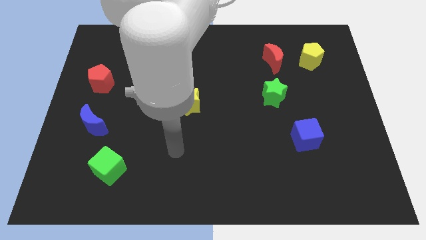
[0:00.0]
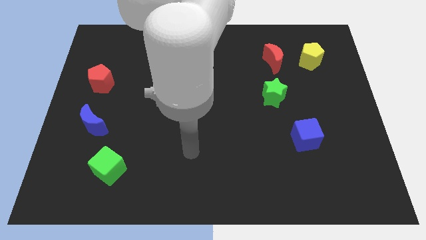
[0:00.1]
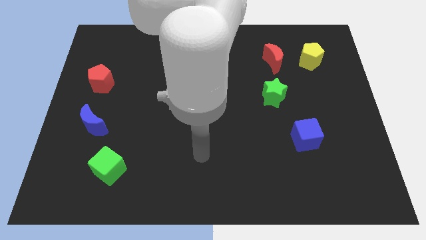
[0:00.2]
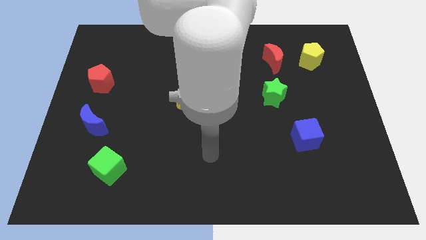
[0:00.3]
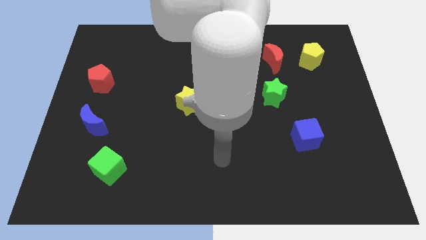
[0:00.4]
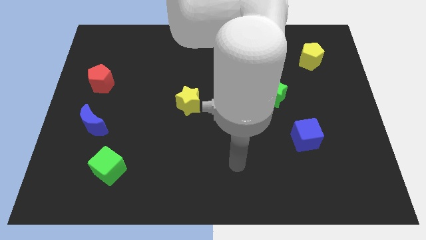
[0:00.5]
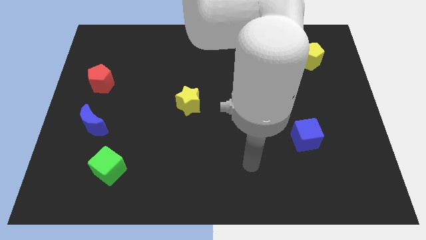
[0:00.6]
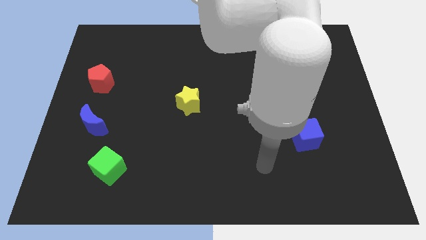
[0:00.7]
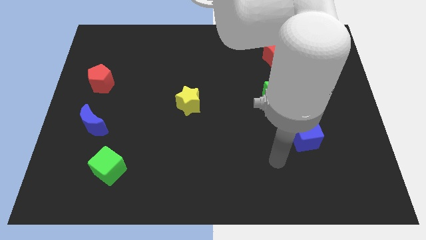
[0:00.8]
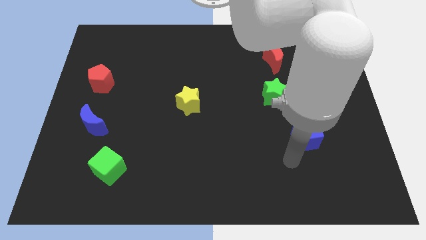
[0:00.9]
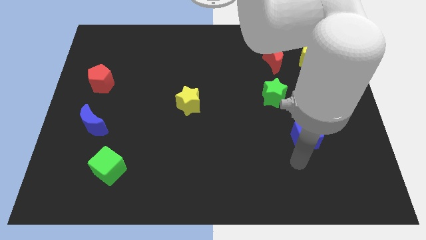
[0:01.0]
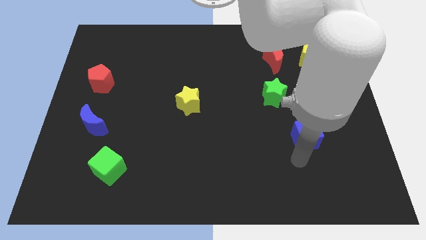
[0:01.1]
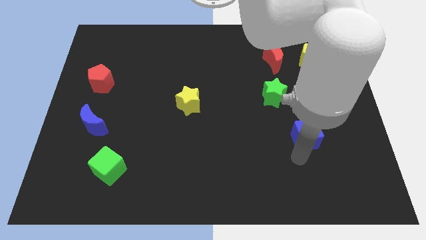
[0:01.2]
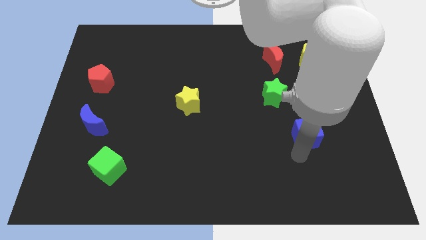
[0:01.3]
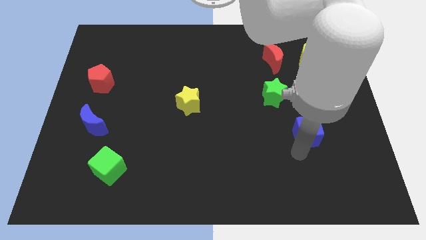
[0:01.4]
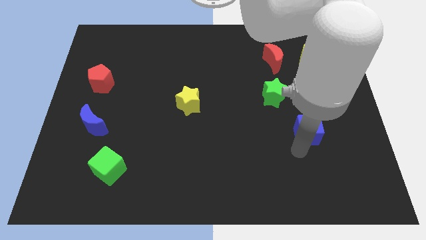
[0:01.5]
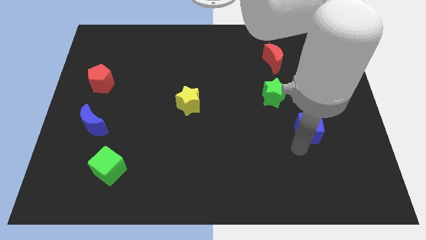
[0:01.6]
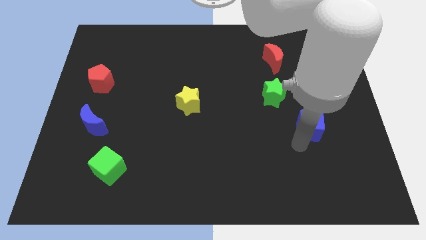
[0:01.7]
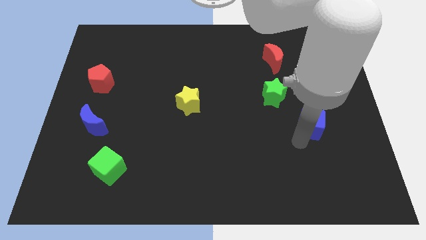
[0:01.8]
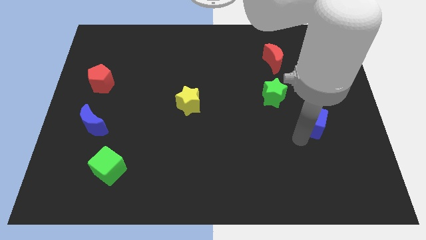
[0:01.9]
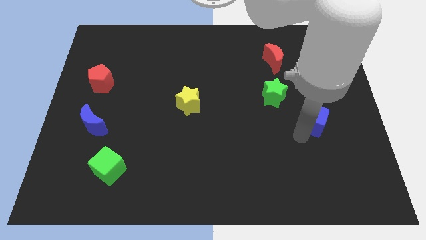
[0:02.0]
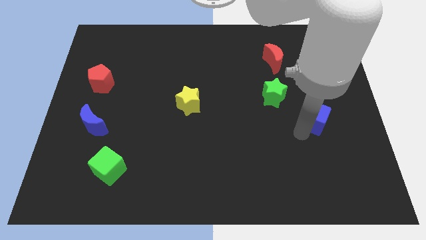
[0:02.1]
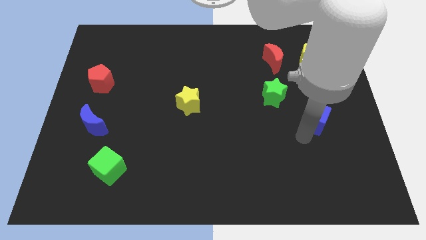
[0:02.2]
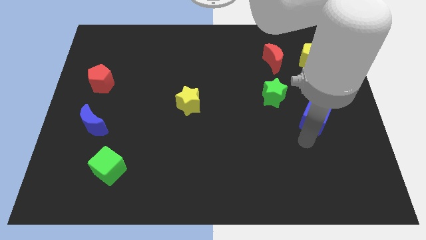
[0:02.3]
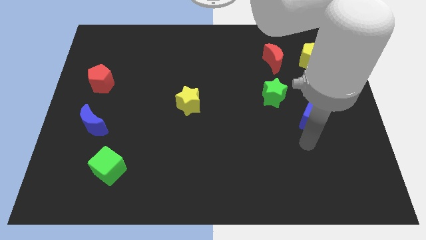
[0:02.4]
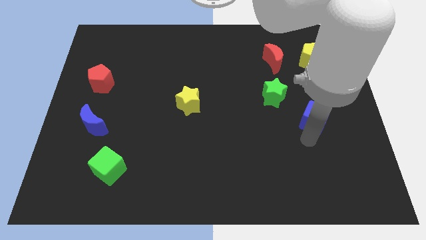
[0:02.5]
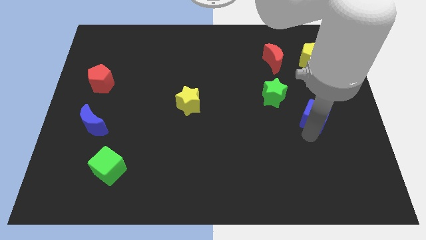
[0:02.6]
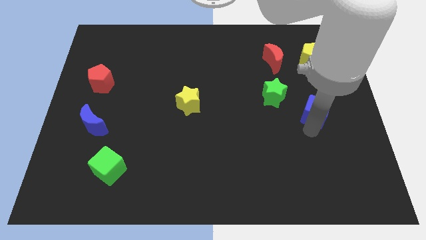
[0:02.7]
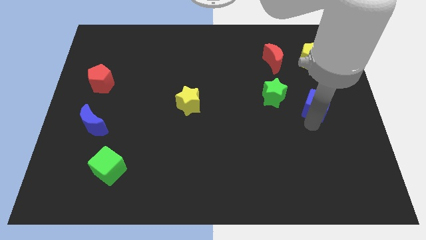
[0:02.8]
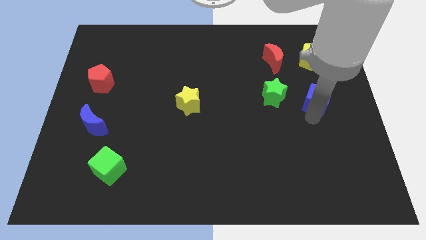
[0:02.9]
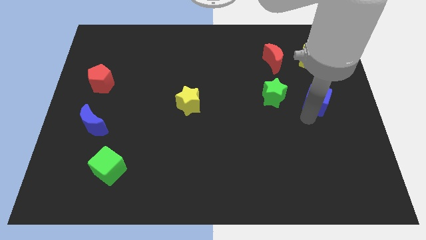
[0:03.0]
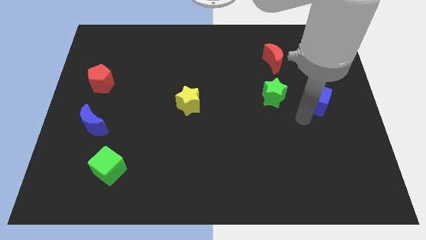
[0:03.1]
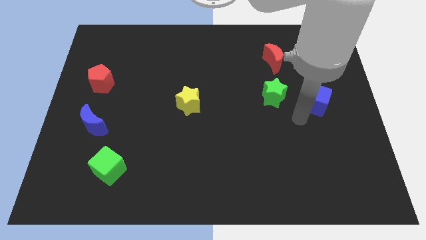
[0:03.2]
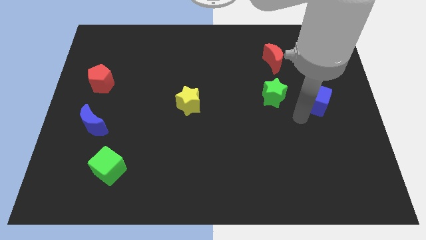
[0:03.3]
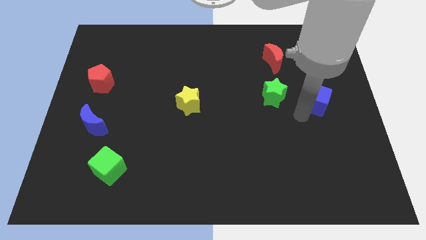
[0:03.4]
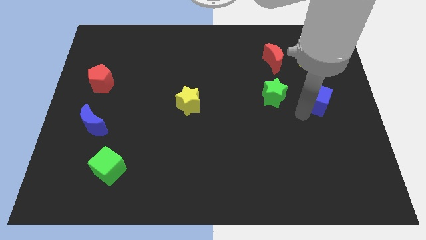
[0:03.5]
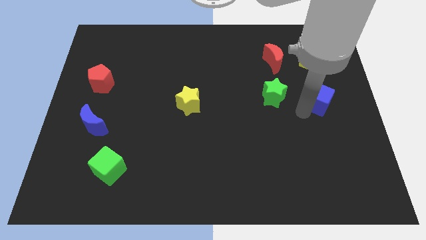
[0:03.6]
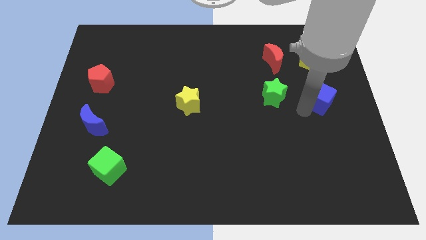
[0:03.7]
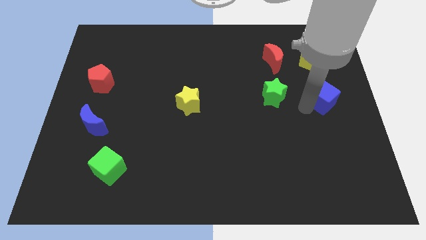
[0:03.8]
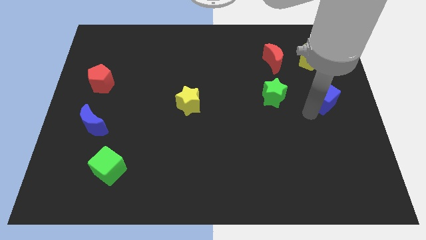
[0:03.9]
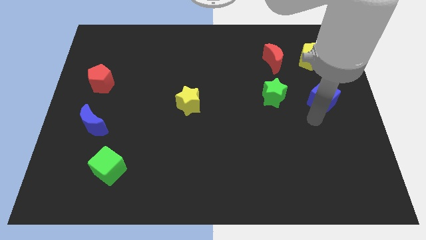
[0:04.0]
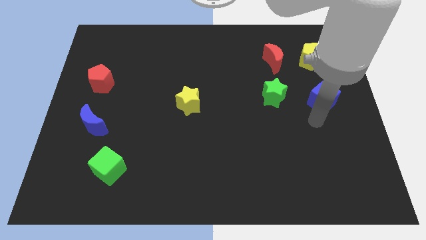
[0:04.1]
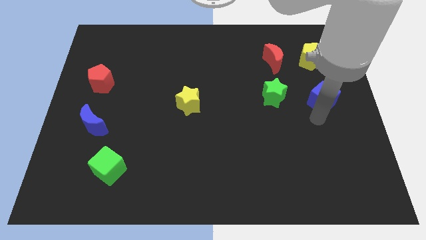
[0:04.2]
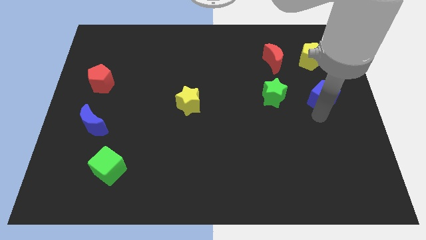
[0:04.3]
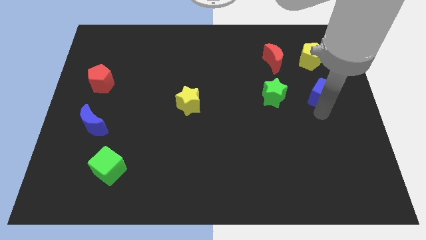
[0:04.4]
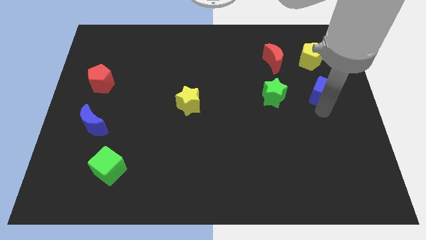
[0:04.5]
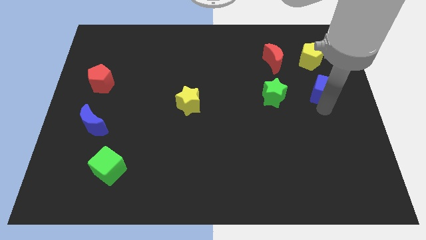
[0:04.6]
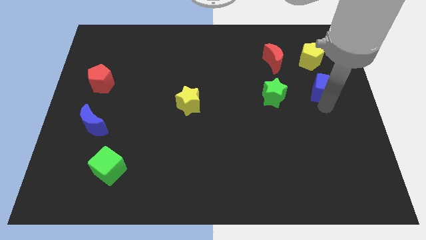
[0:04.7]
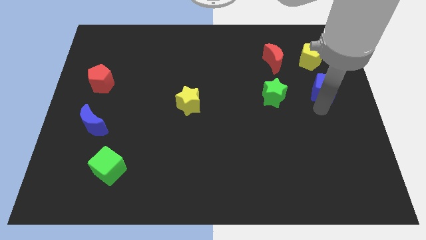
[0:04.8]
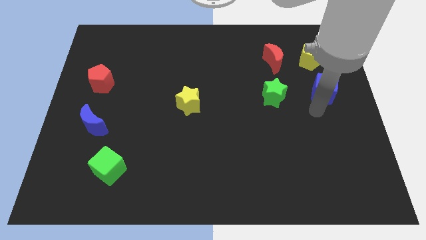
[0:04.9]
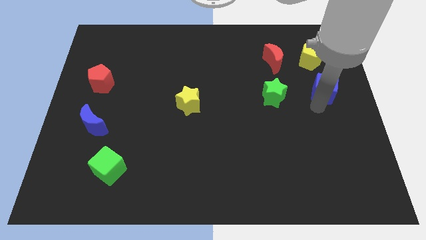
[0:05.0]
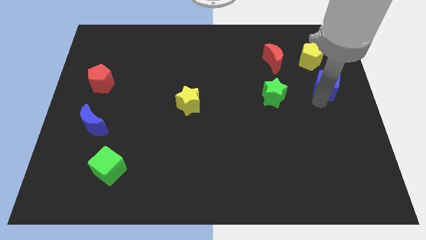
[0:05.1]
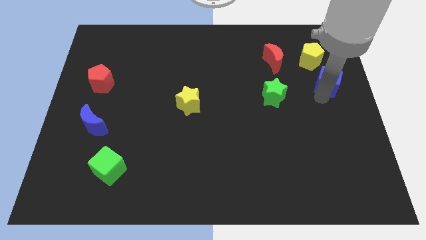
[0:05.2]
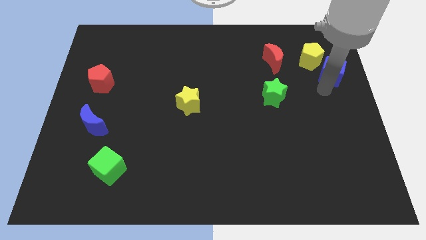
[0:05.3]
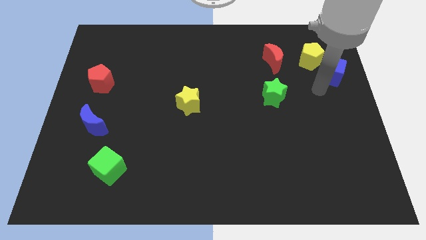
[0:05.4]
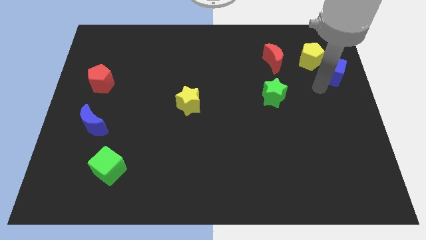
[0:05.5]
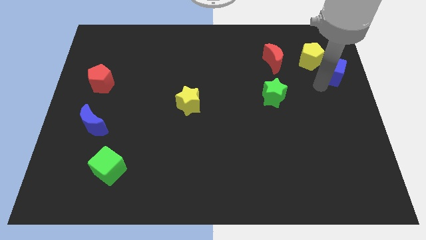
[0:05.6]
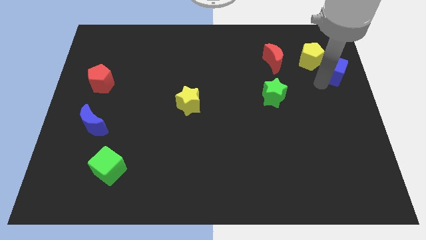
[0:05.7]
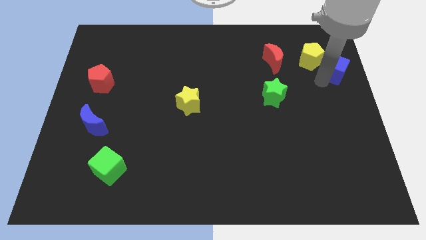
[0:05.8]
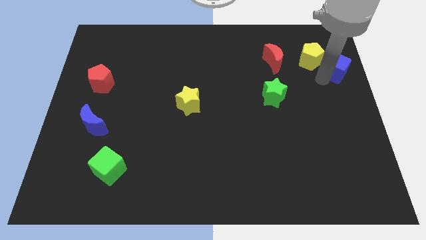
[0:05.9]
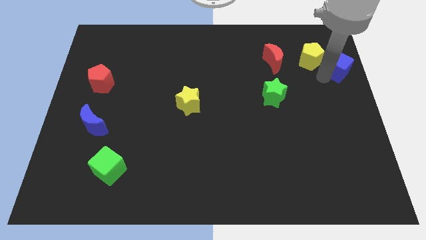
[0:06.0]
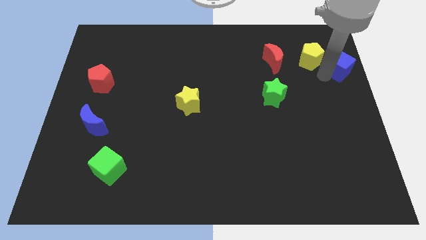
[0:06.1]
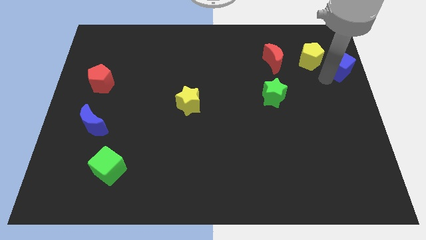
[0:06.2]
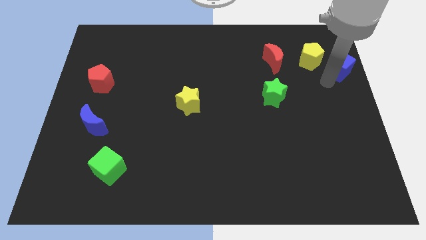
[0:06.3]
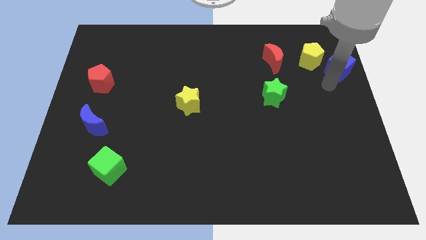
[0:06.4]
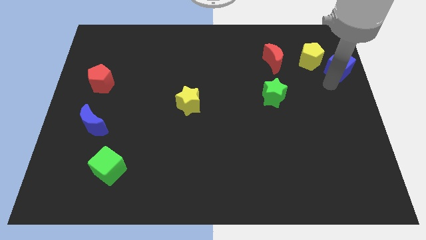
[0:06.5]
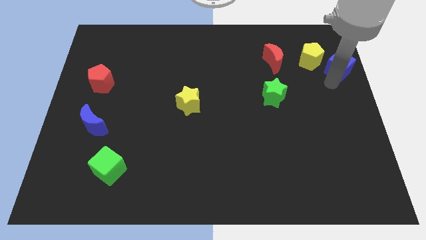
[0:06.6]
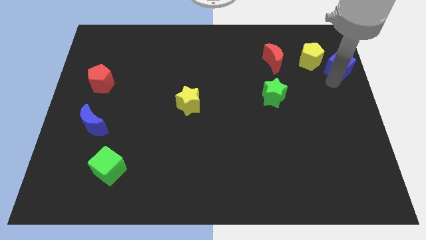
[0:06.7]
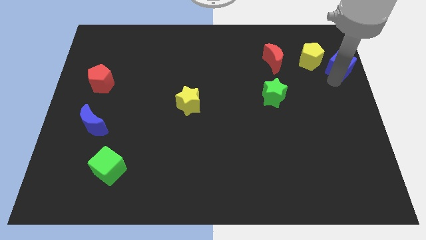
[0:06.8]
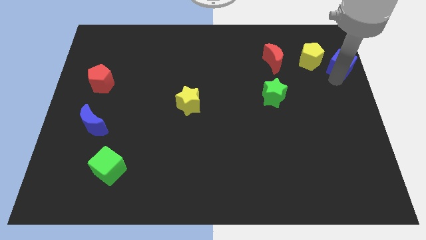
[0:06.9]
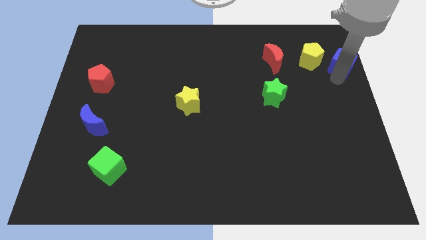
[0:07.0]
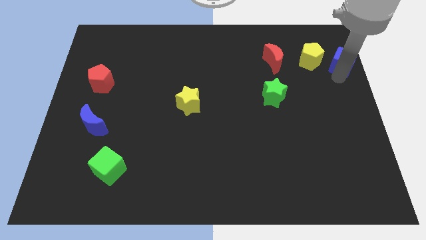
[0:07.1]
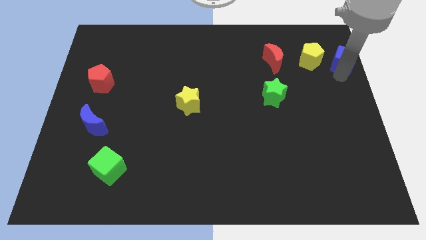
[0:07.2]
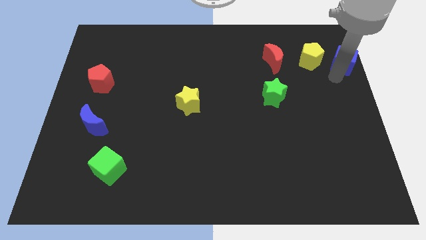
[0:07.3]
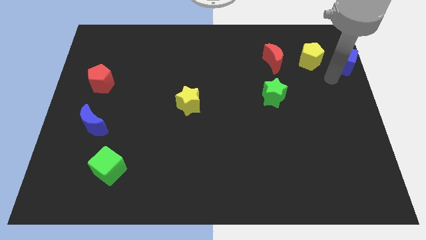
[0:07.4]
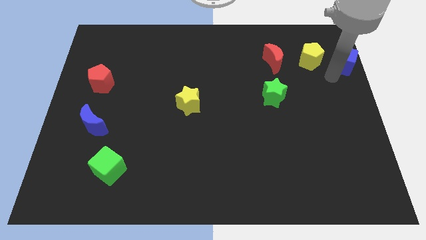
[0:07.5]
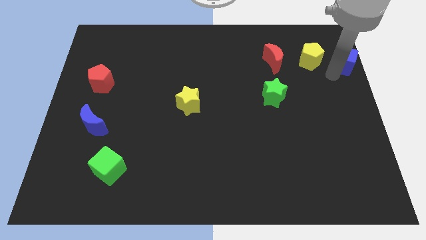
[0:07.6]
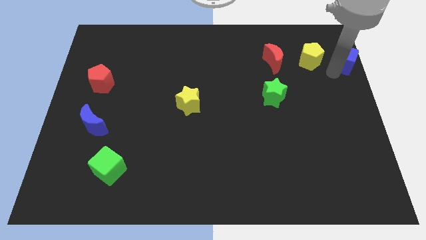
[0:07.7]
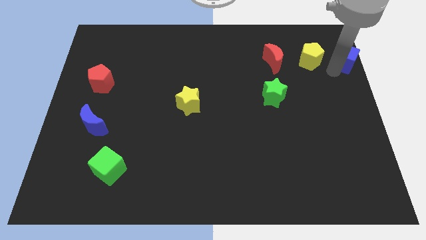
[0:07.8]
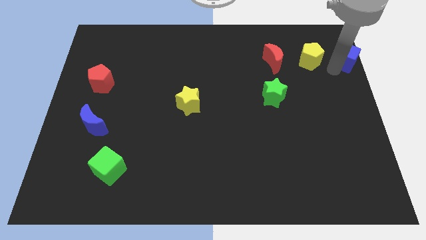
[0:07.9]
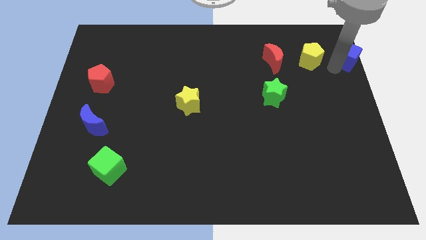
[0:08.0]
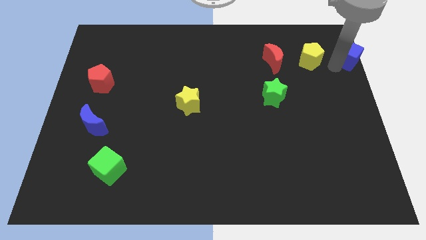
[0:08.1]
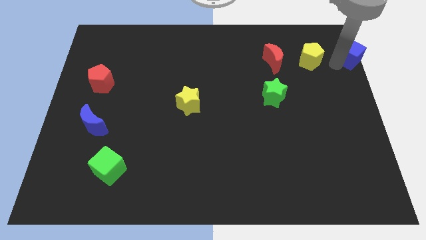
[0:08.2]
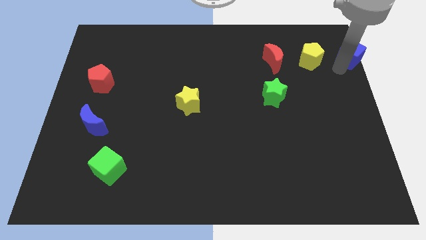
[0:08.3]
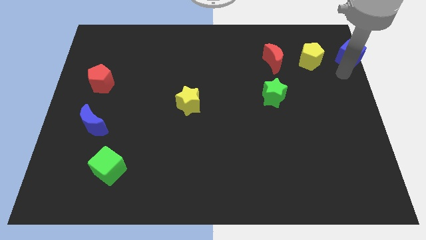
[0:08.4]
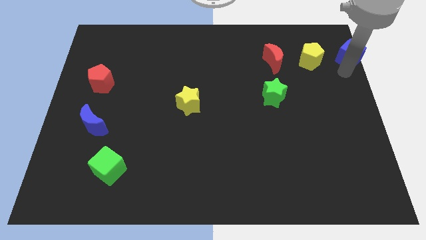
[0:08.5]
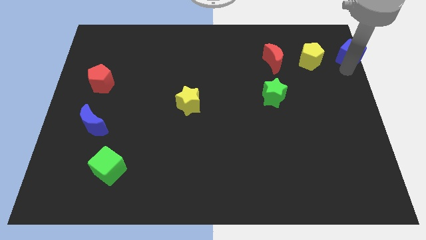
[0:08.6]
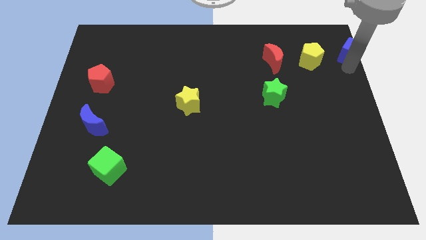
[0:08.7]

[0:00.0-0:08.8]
push the blue cube to the top right corner
